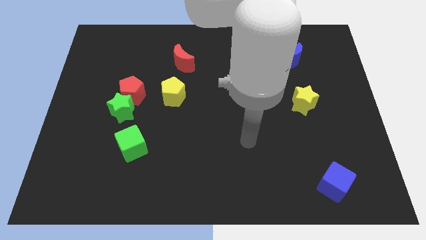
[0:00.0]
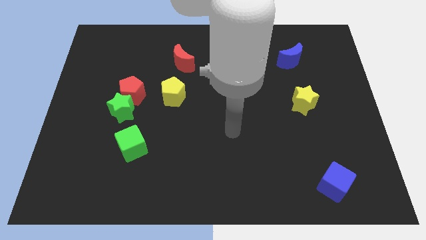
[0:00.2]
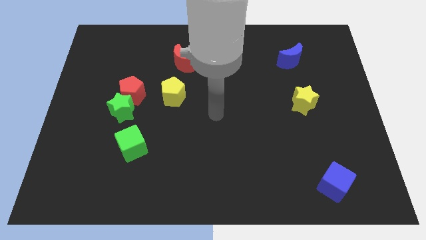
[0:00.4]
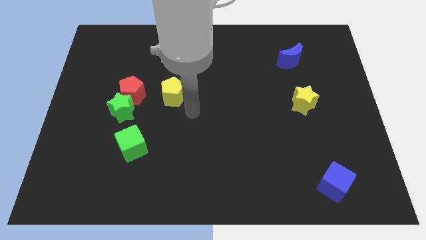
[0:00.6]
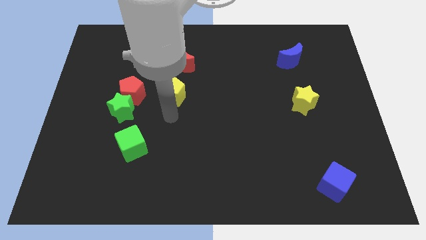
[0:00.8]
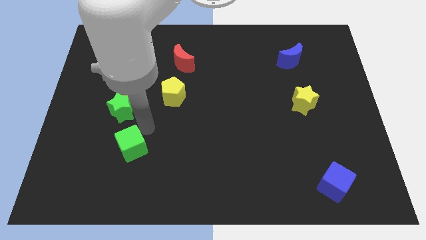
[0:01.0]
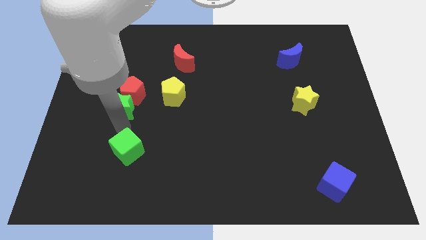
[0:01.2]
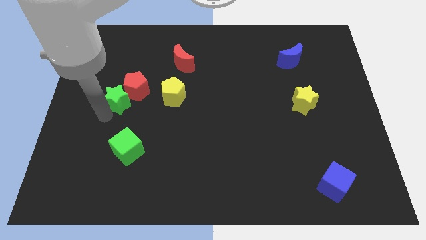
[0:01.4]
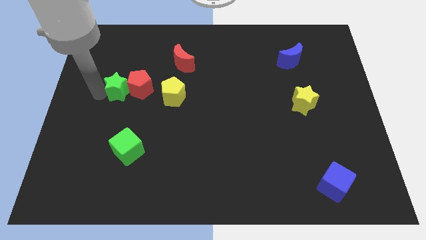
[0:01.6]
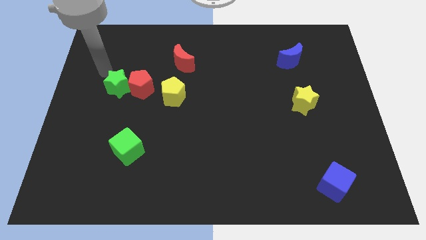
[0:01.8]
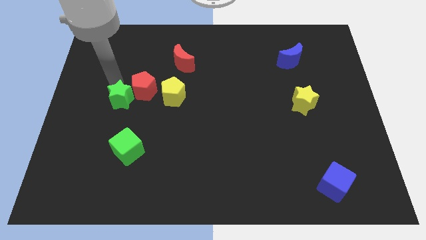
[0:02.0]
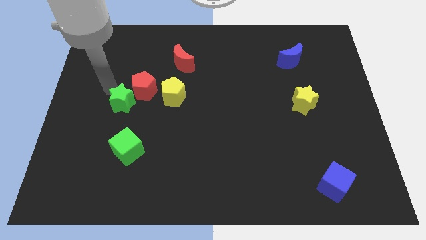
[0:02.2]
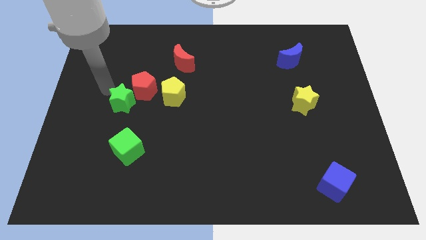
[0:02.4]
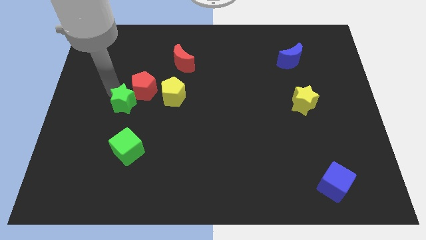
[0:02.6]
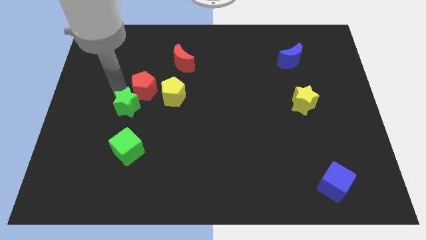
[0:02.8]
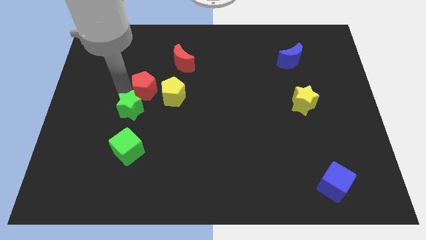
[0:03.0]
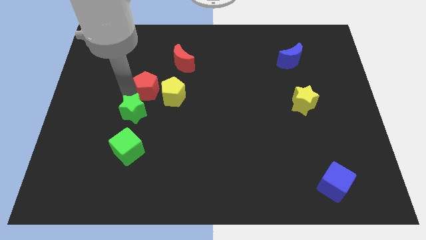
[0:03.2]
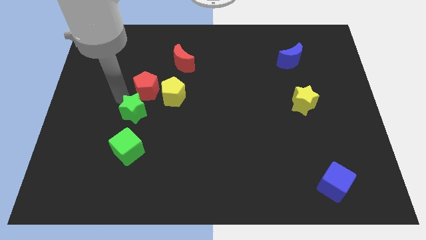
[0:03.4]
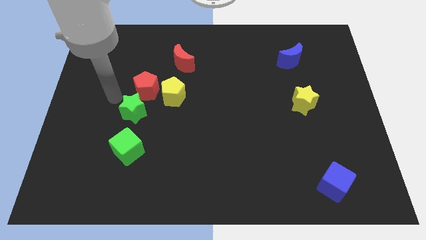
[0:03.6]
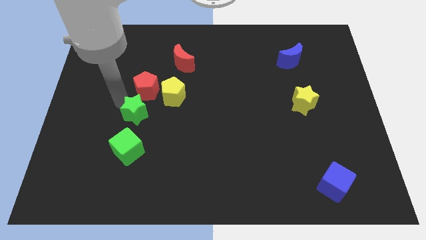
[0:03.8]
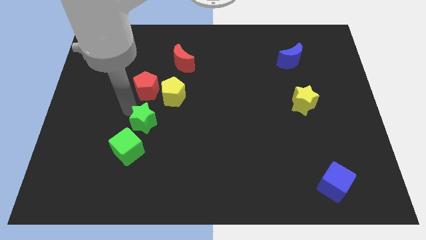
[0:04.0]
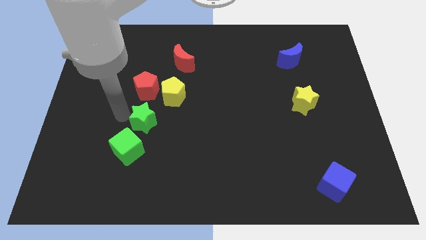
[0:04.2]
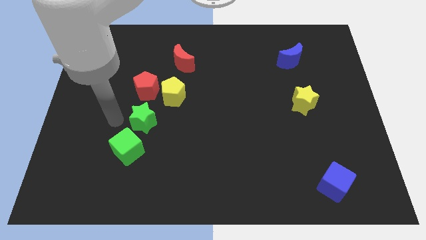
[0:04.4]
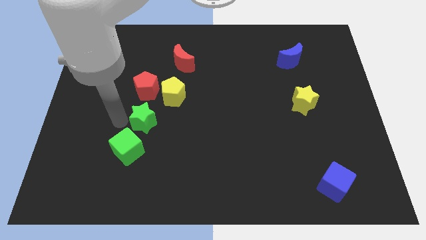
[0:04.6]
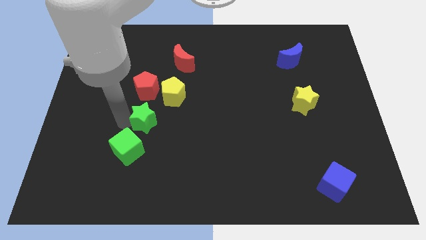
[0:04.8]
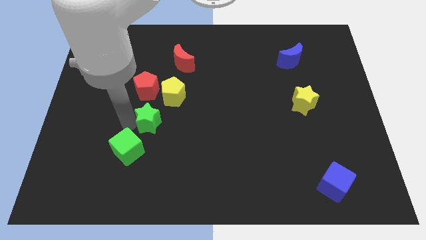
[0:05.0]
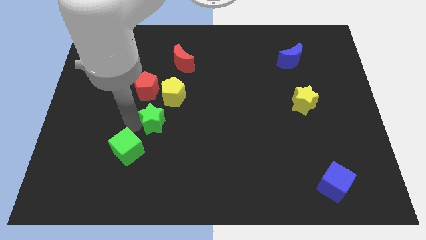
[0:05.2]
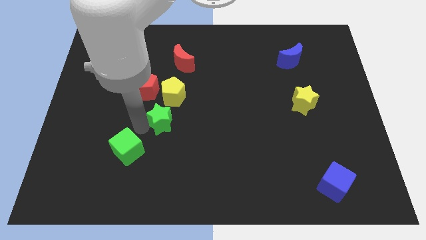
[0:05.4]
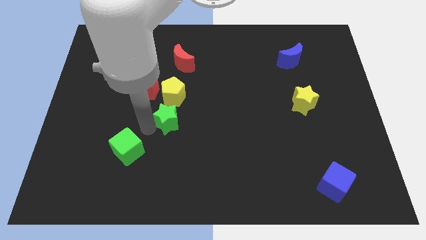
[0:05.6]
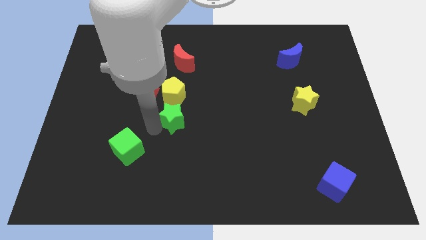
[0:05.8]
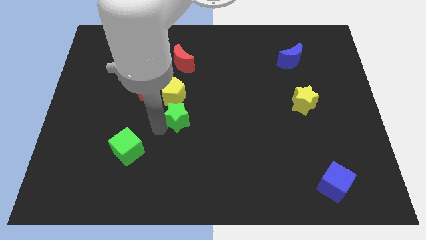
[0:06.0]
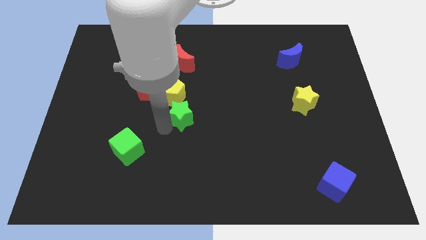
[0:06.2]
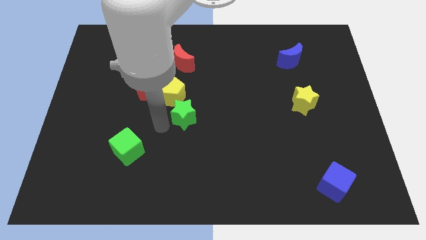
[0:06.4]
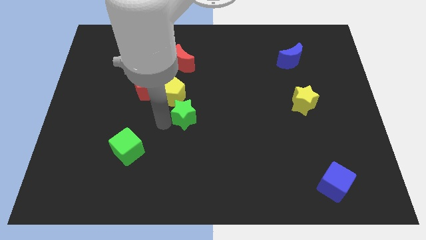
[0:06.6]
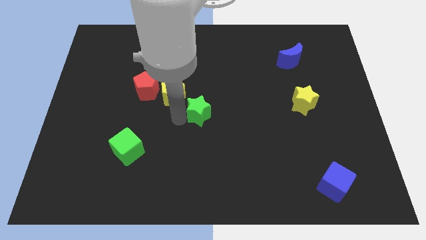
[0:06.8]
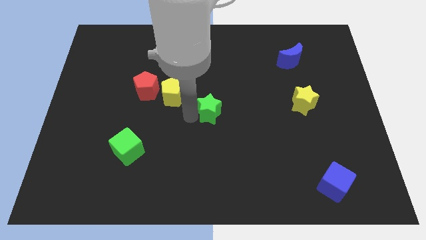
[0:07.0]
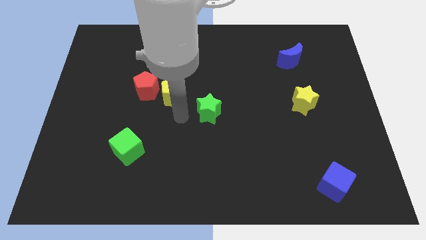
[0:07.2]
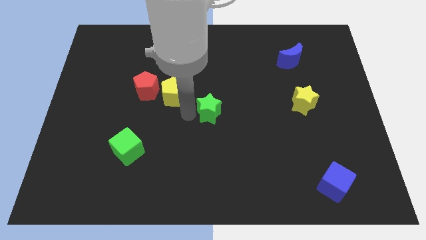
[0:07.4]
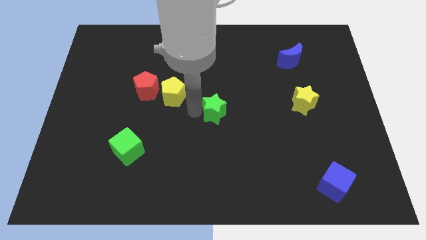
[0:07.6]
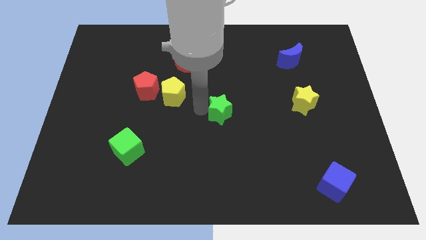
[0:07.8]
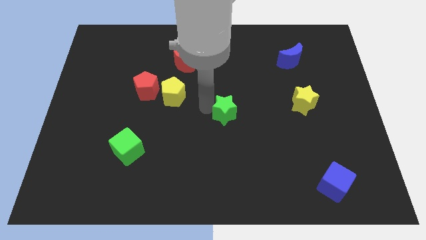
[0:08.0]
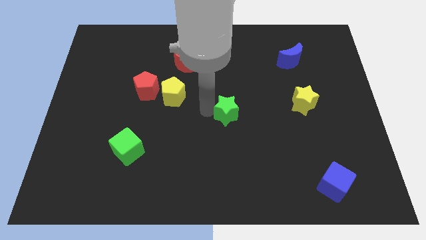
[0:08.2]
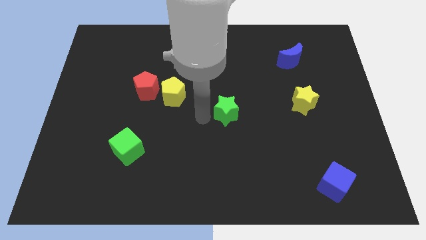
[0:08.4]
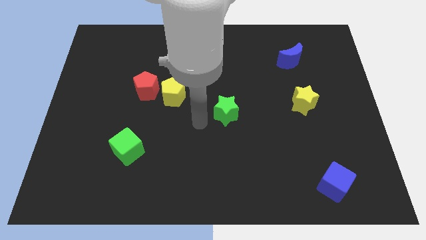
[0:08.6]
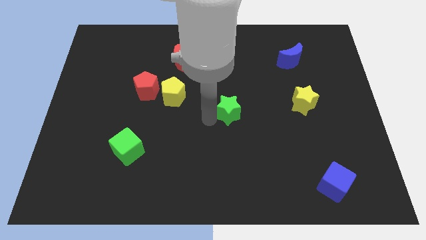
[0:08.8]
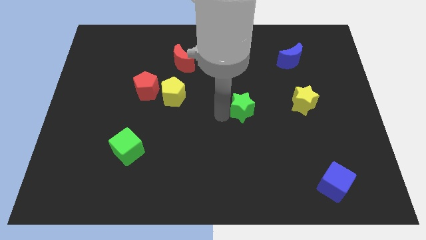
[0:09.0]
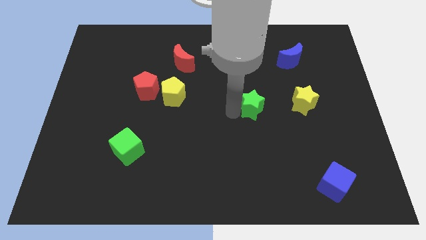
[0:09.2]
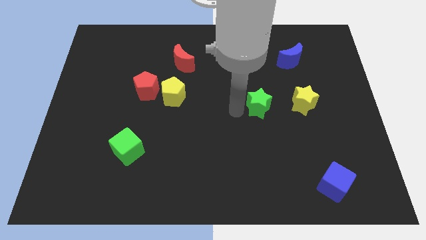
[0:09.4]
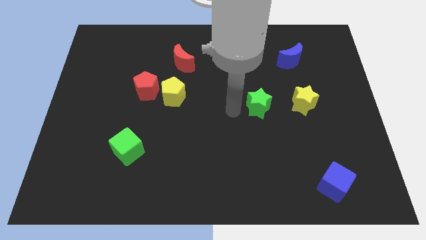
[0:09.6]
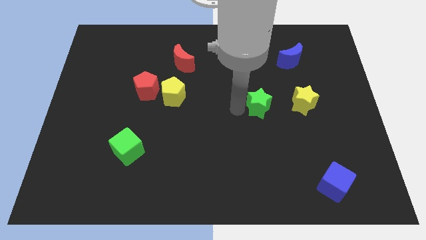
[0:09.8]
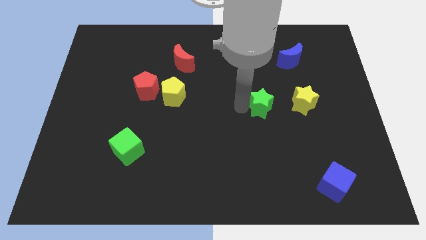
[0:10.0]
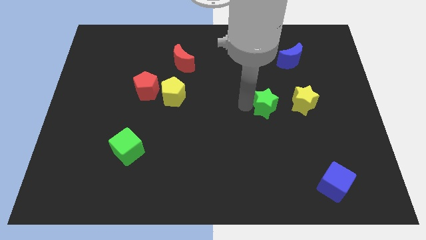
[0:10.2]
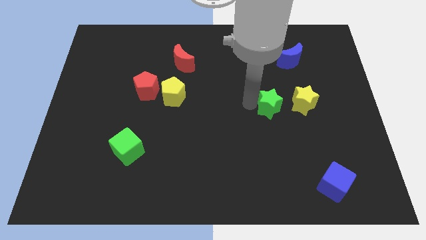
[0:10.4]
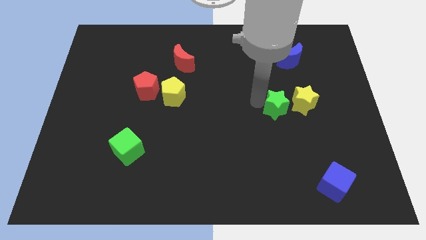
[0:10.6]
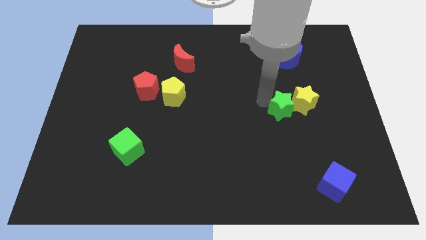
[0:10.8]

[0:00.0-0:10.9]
push the green star next to the yellow star

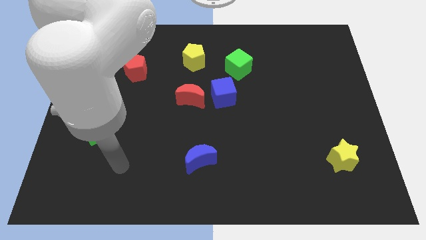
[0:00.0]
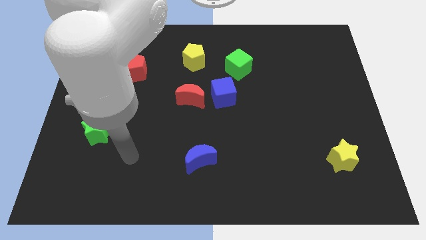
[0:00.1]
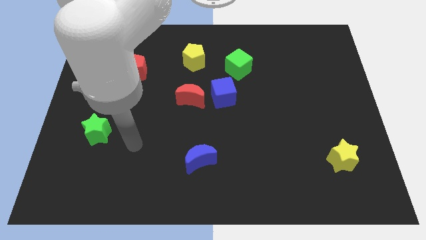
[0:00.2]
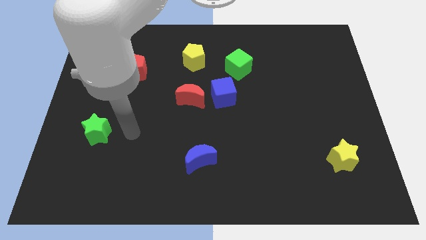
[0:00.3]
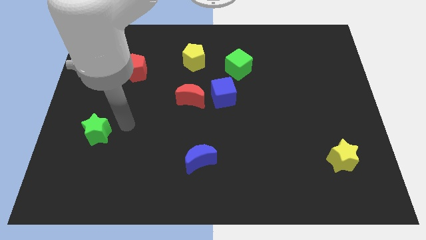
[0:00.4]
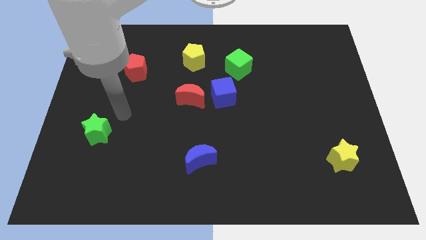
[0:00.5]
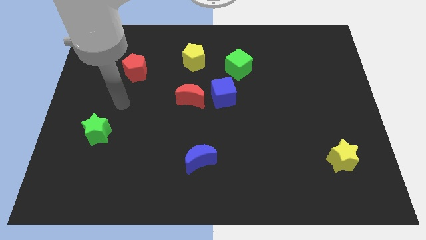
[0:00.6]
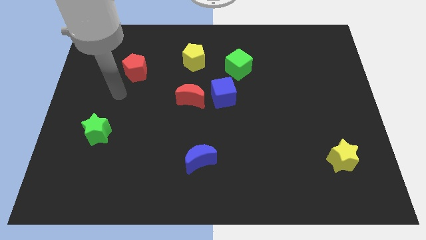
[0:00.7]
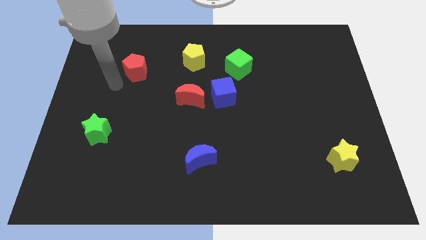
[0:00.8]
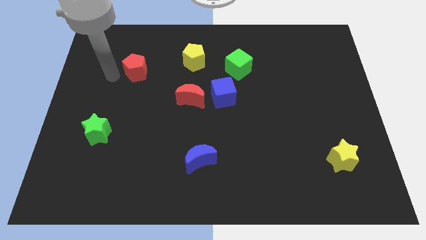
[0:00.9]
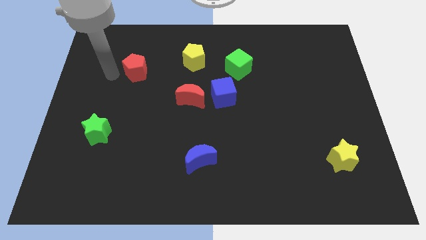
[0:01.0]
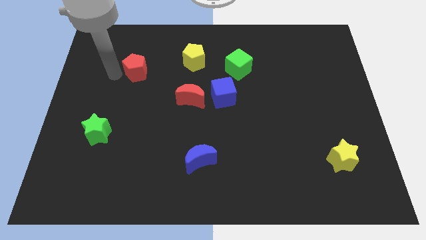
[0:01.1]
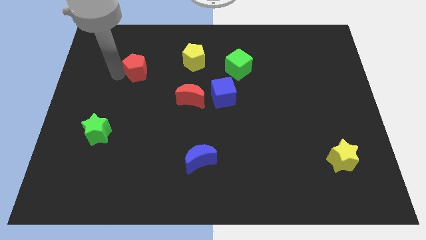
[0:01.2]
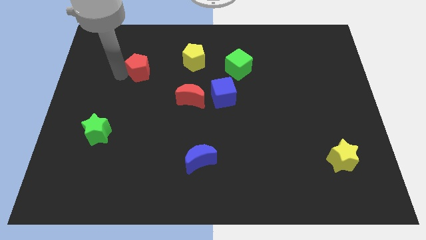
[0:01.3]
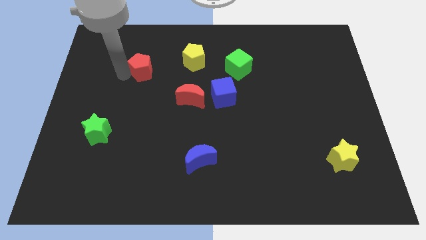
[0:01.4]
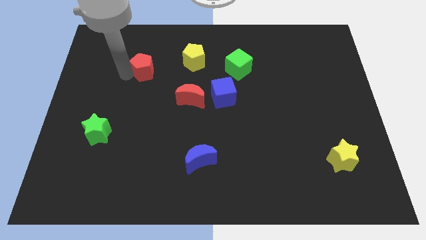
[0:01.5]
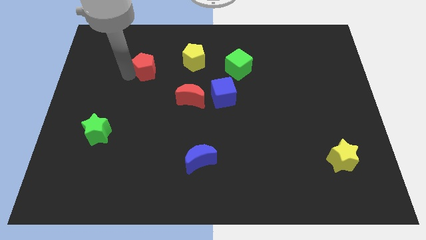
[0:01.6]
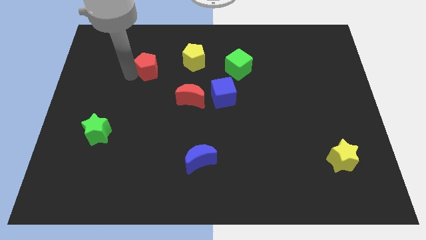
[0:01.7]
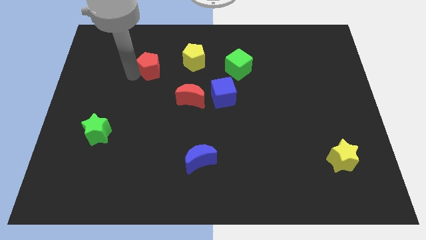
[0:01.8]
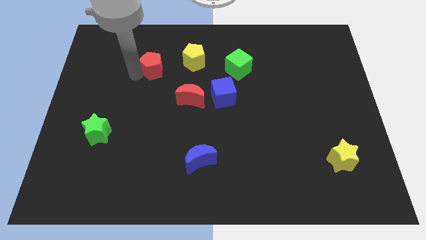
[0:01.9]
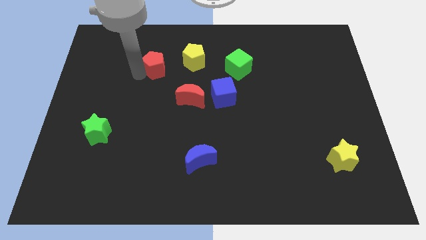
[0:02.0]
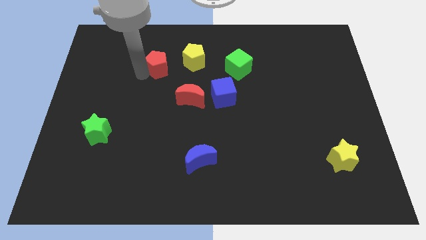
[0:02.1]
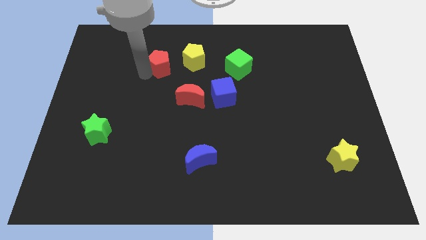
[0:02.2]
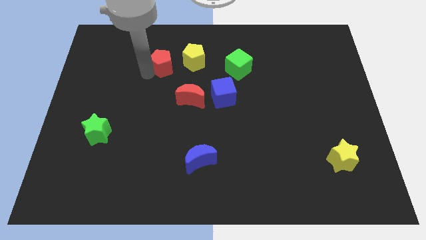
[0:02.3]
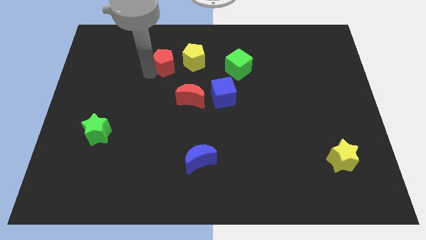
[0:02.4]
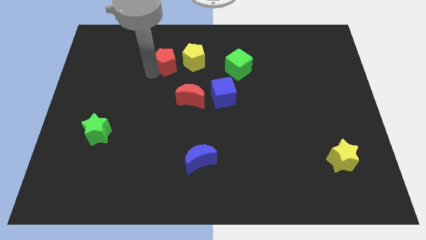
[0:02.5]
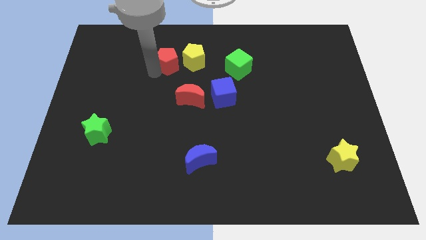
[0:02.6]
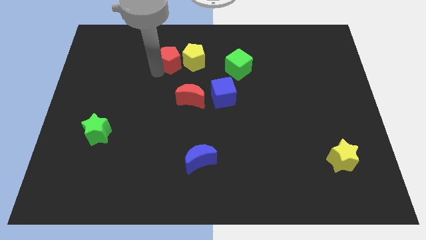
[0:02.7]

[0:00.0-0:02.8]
push the red pentagon close to the yellow pentagon

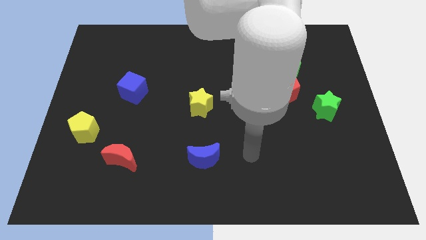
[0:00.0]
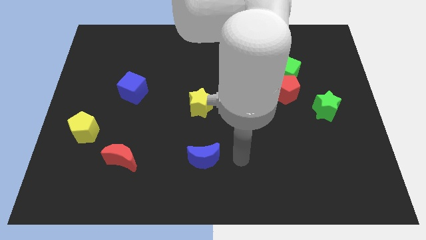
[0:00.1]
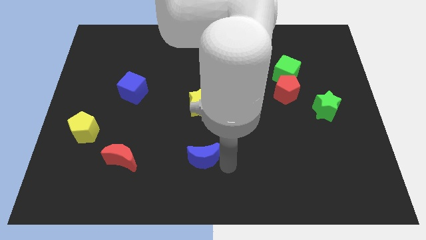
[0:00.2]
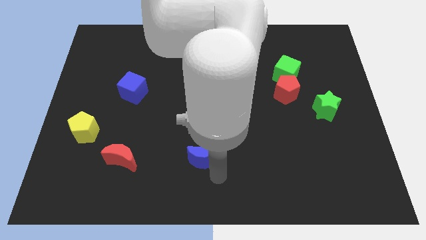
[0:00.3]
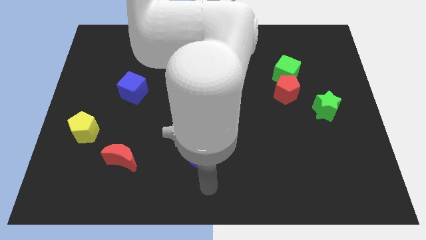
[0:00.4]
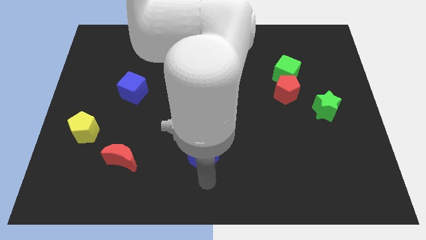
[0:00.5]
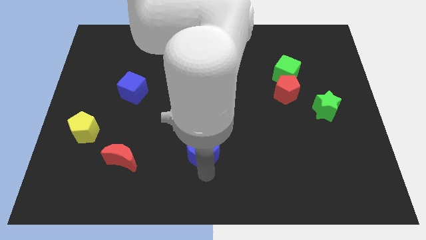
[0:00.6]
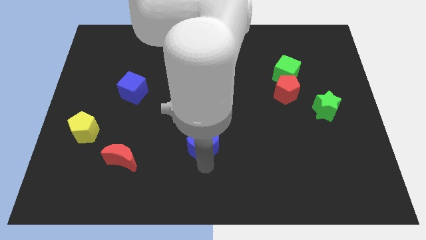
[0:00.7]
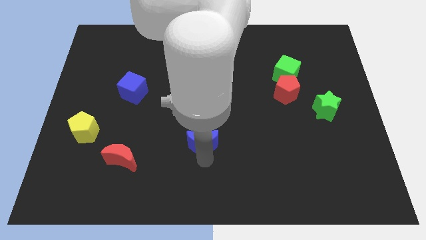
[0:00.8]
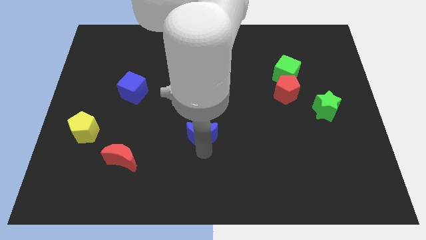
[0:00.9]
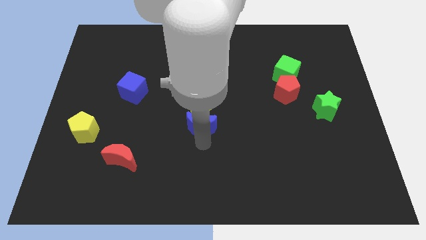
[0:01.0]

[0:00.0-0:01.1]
slide the blue moon close to the yellow star
